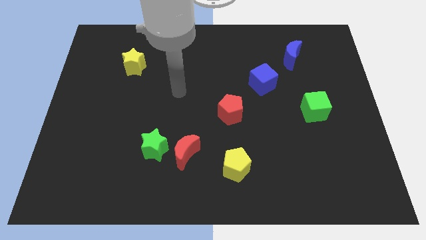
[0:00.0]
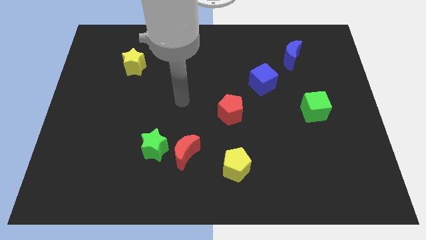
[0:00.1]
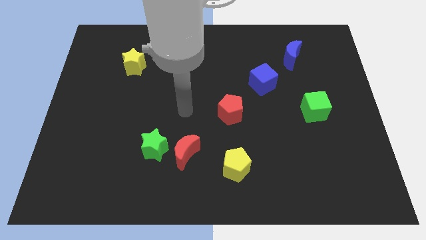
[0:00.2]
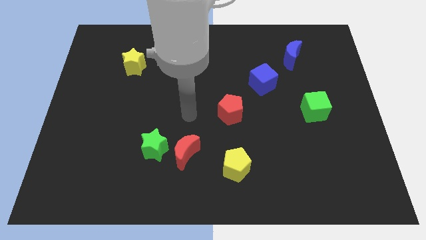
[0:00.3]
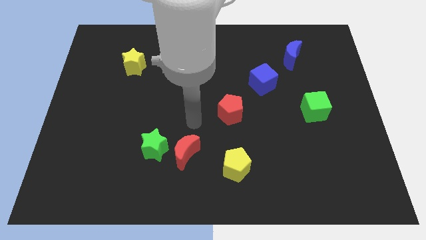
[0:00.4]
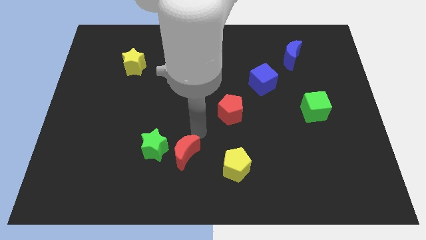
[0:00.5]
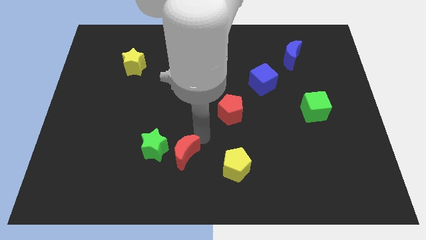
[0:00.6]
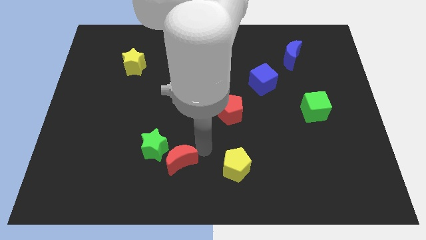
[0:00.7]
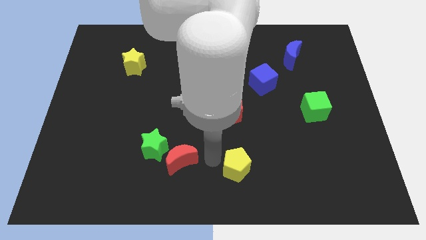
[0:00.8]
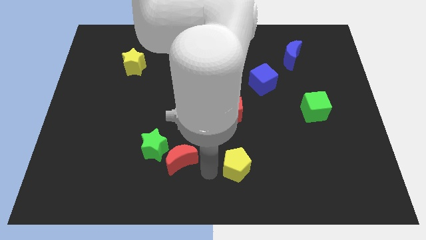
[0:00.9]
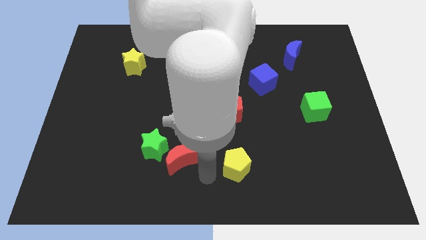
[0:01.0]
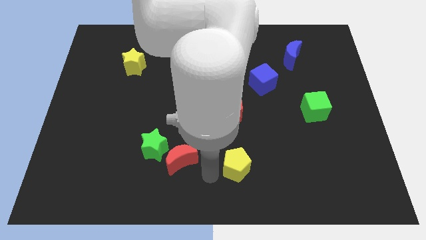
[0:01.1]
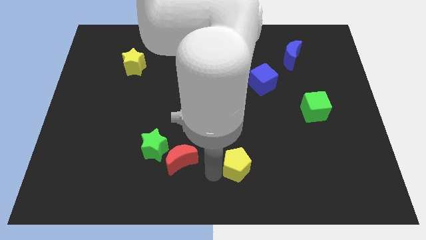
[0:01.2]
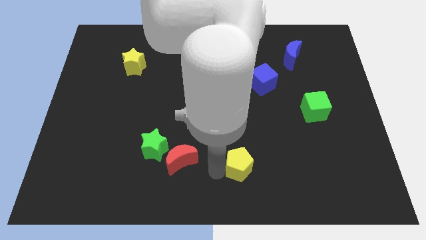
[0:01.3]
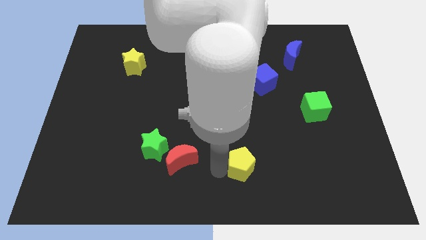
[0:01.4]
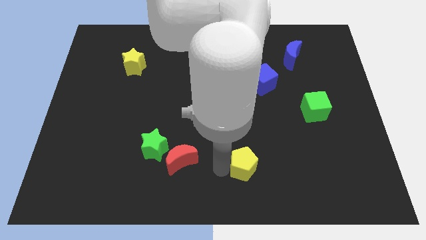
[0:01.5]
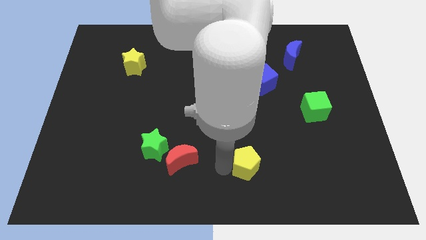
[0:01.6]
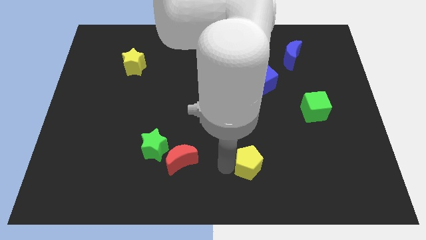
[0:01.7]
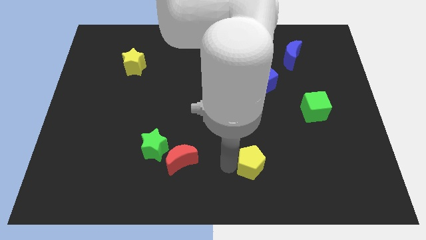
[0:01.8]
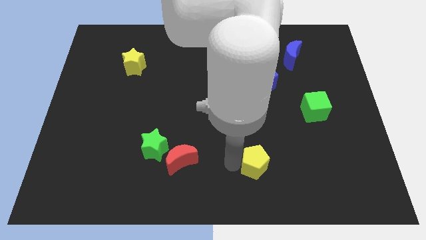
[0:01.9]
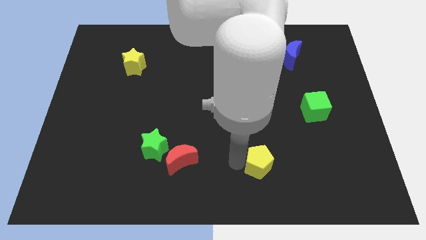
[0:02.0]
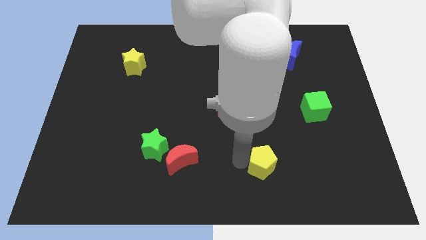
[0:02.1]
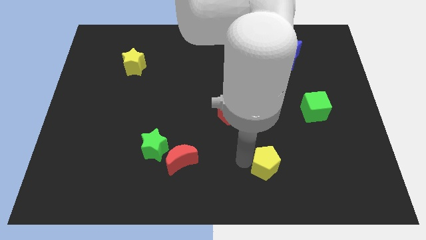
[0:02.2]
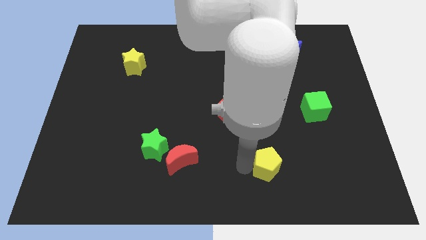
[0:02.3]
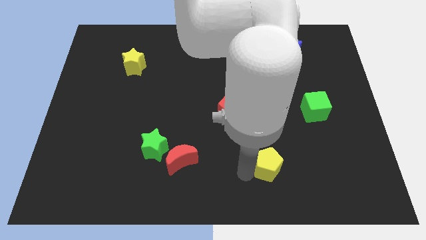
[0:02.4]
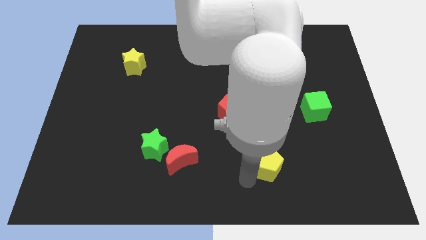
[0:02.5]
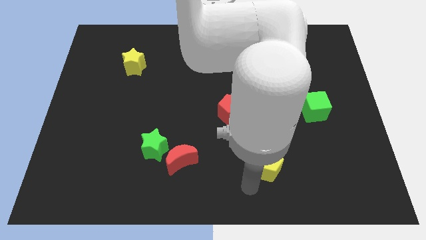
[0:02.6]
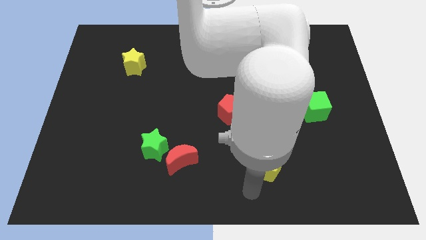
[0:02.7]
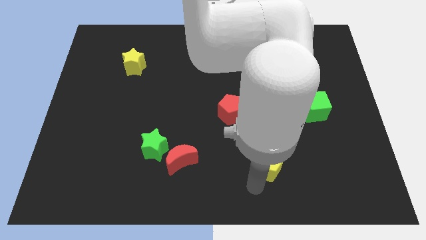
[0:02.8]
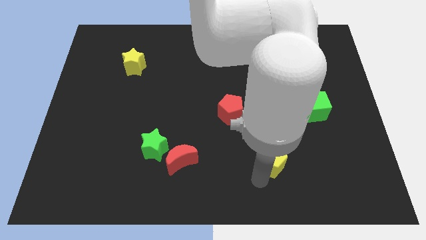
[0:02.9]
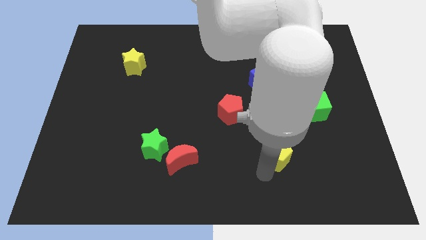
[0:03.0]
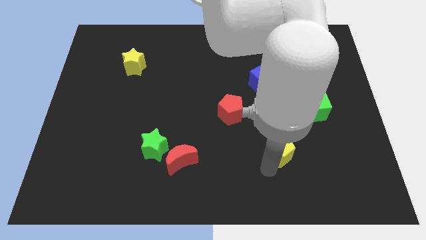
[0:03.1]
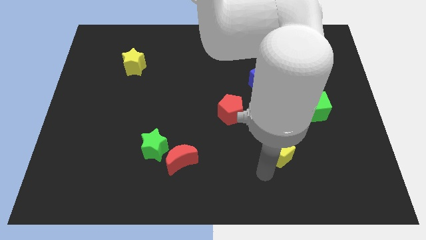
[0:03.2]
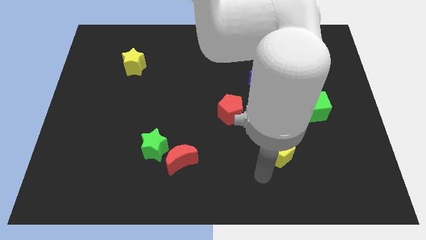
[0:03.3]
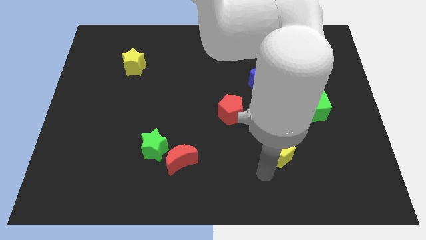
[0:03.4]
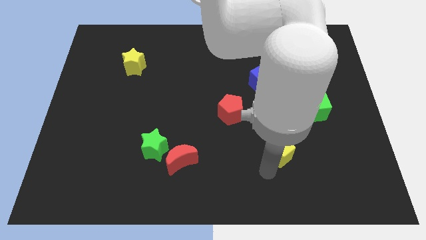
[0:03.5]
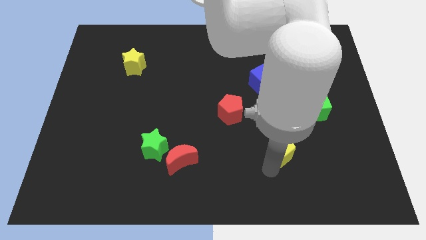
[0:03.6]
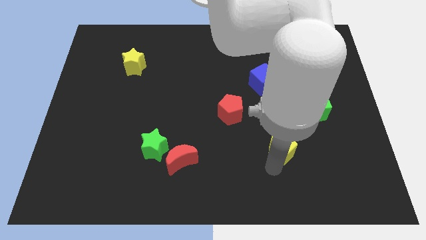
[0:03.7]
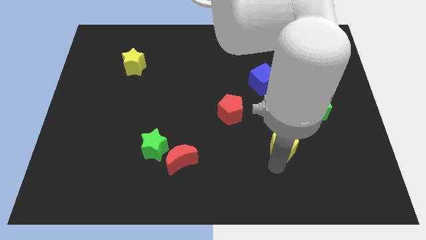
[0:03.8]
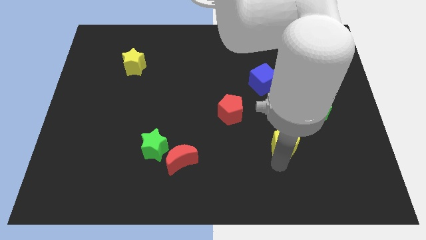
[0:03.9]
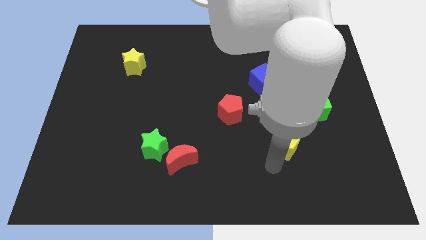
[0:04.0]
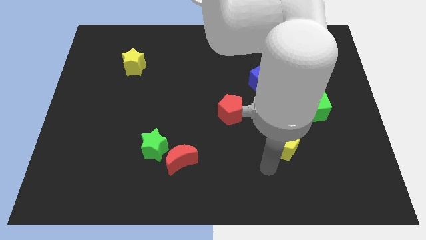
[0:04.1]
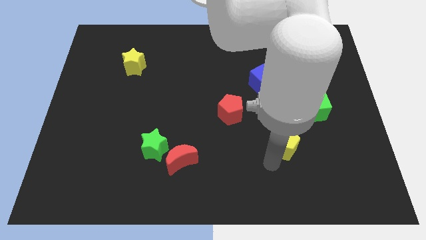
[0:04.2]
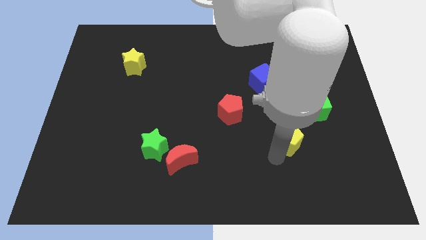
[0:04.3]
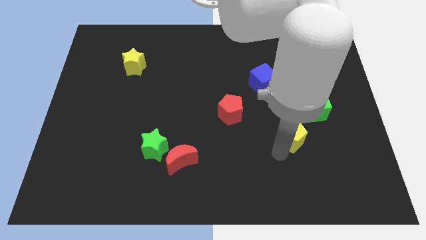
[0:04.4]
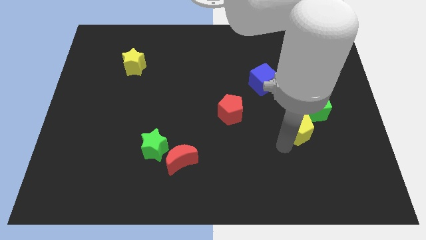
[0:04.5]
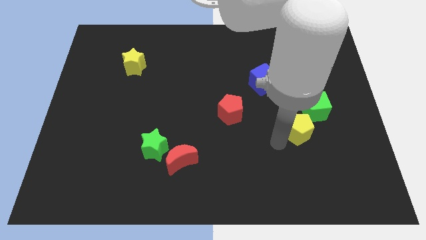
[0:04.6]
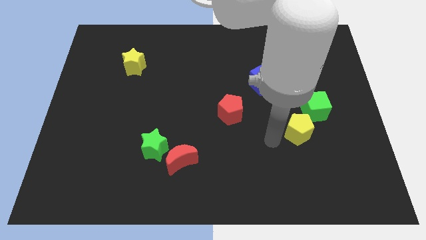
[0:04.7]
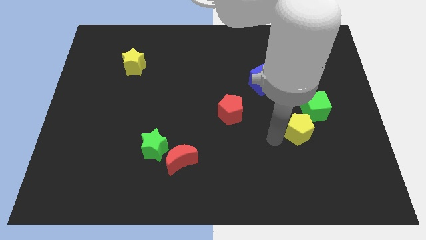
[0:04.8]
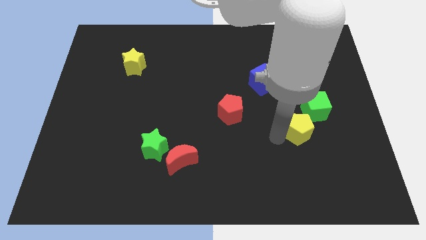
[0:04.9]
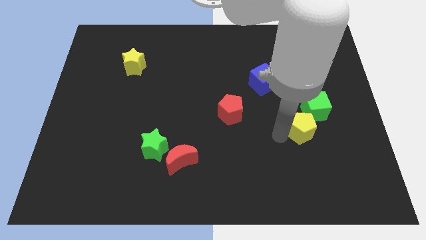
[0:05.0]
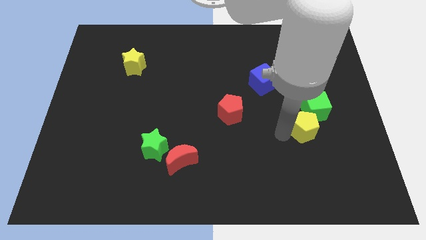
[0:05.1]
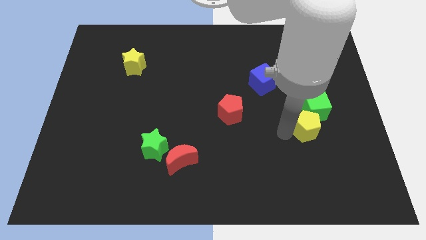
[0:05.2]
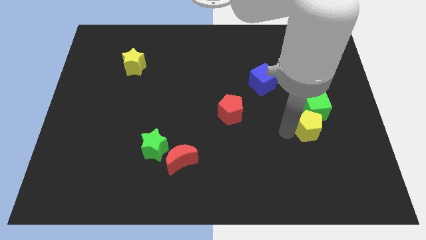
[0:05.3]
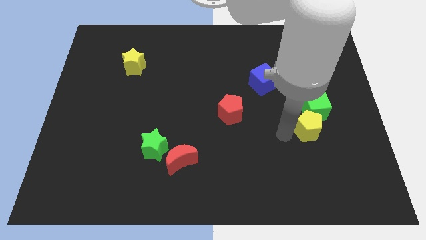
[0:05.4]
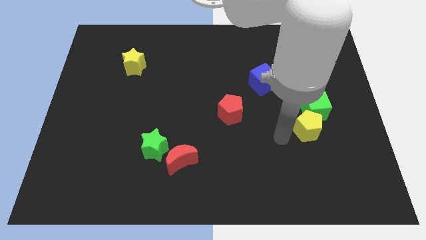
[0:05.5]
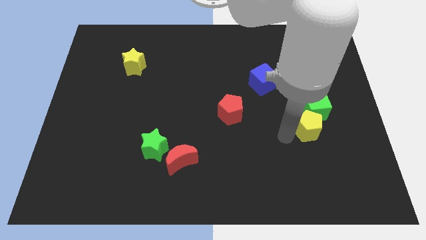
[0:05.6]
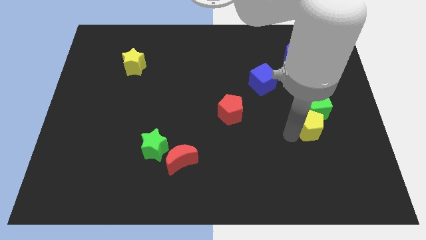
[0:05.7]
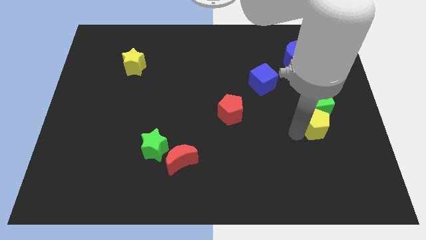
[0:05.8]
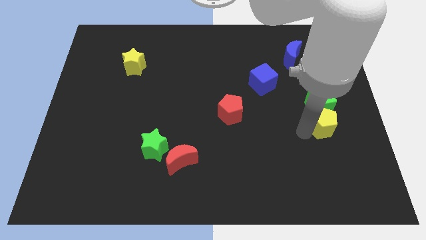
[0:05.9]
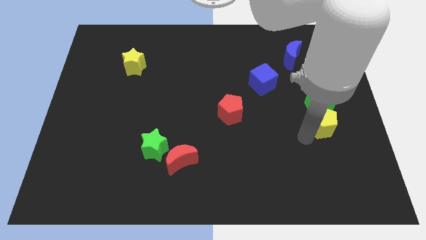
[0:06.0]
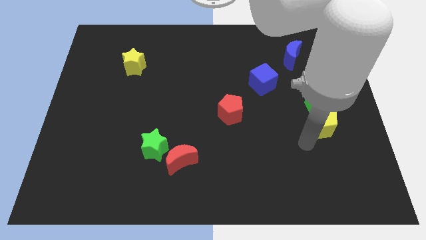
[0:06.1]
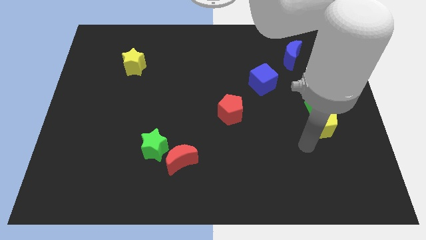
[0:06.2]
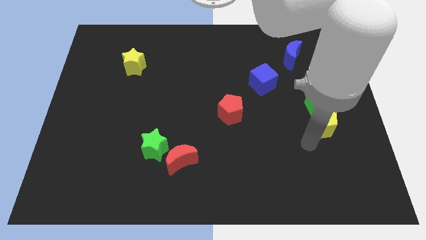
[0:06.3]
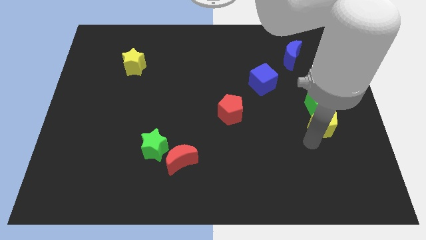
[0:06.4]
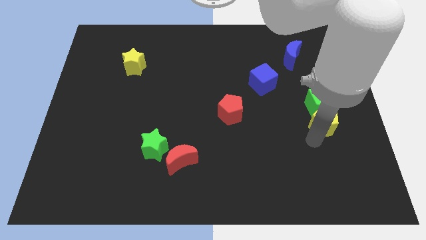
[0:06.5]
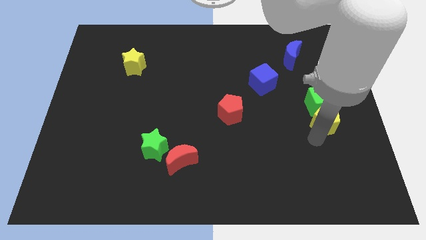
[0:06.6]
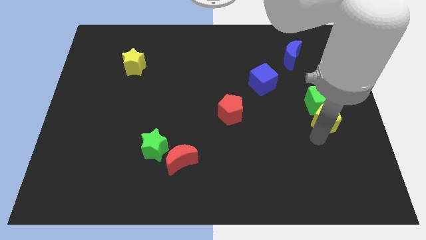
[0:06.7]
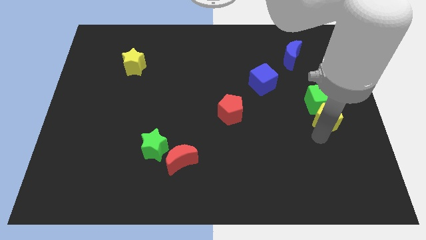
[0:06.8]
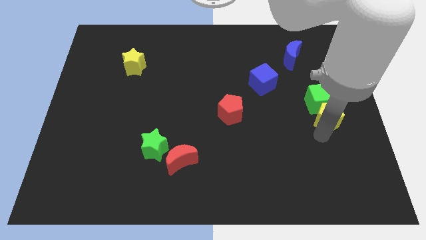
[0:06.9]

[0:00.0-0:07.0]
move the yellow pentagon to the center right
